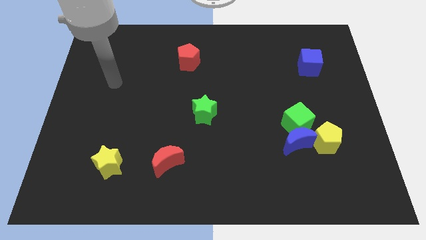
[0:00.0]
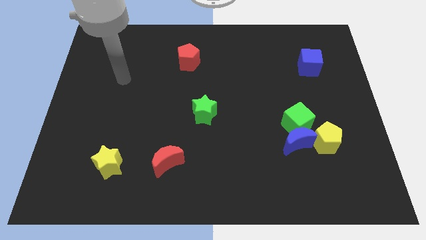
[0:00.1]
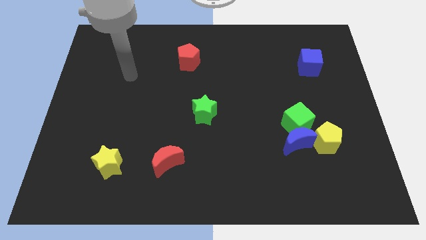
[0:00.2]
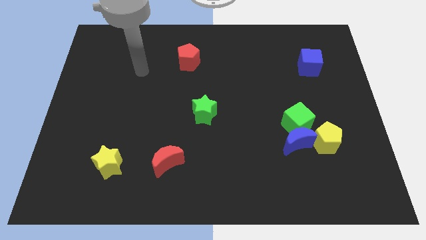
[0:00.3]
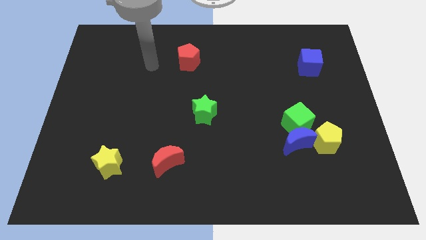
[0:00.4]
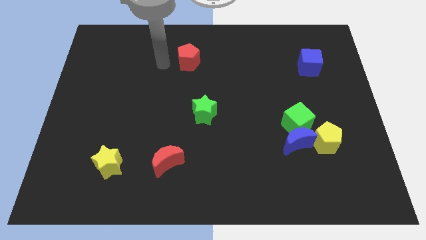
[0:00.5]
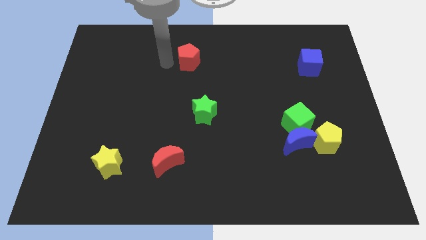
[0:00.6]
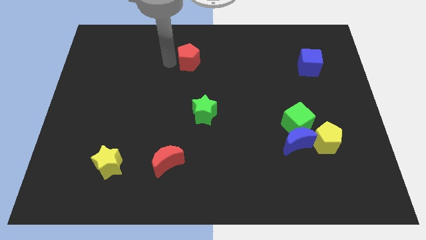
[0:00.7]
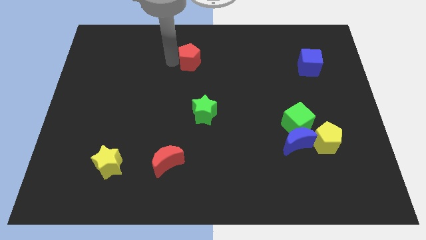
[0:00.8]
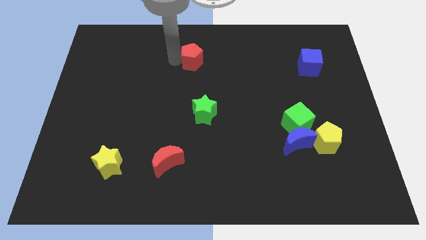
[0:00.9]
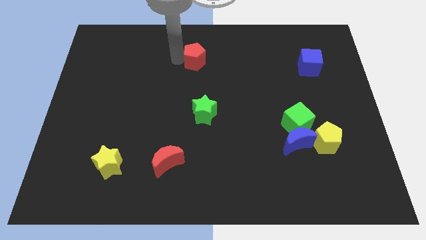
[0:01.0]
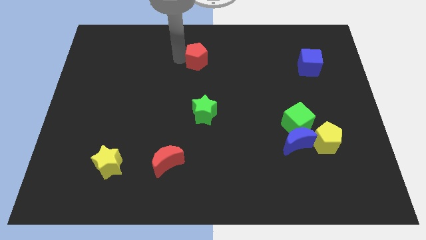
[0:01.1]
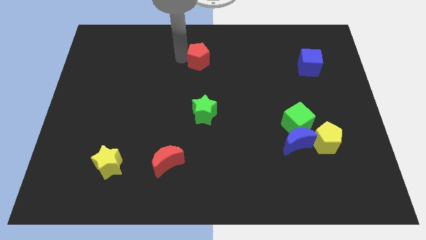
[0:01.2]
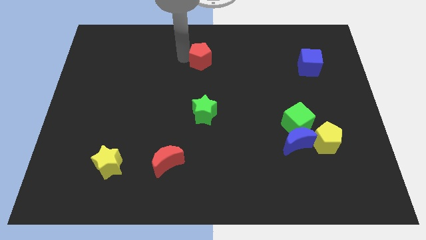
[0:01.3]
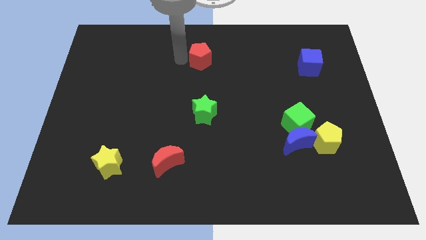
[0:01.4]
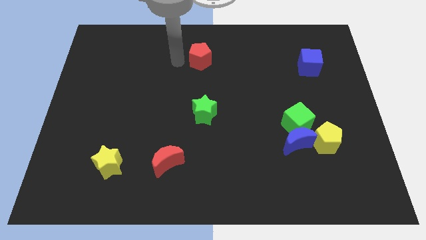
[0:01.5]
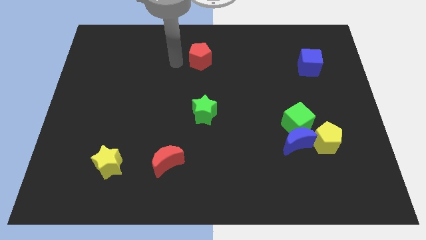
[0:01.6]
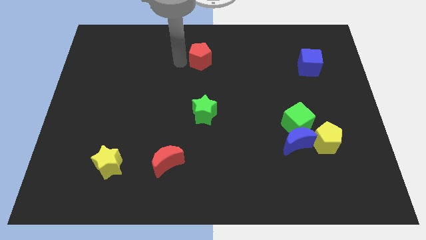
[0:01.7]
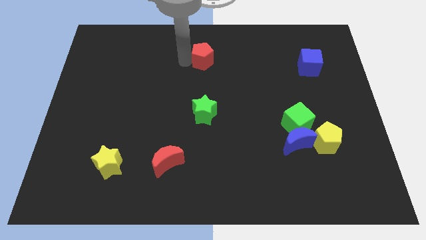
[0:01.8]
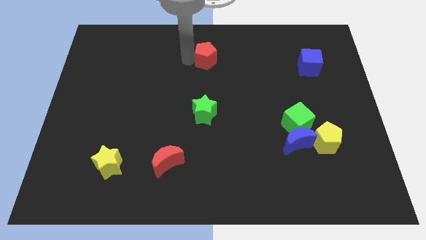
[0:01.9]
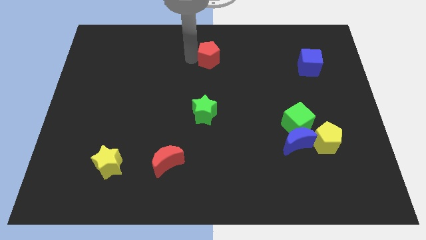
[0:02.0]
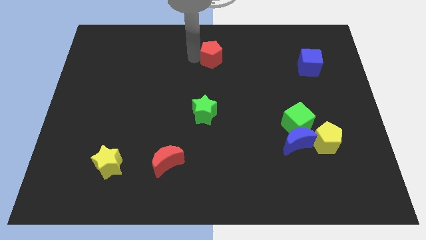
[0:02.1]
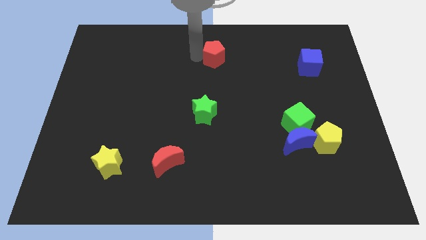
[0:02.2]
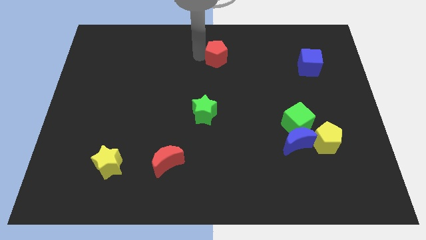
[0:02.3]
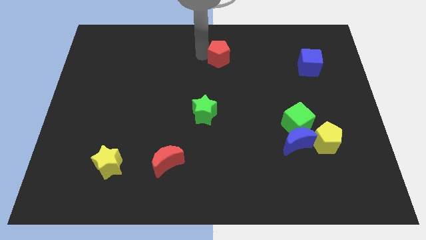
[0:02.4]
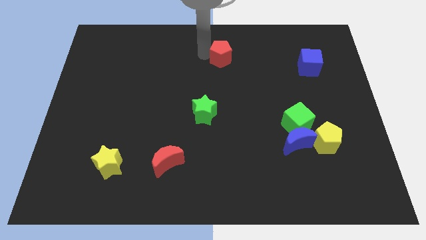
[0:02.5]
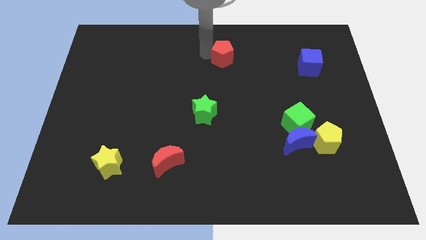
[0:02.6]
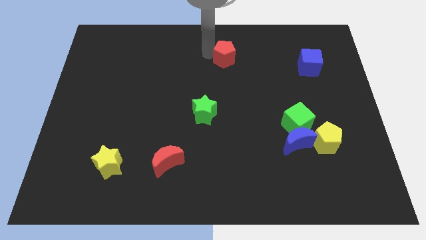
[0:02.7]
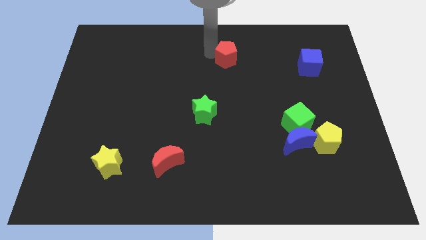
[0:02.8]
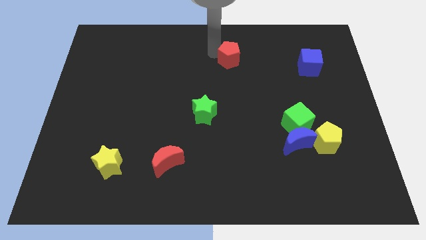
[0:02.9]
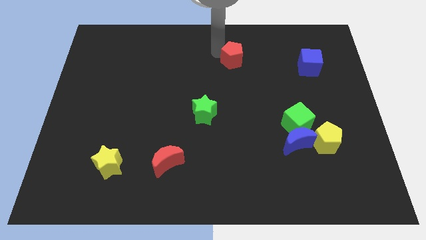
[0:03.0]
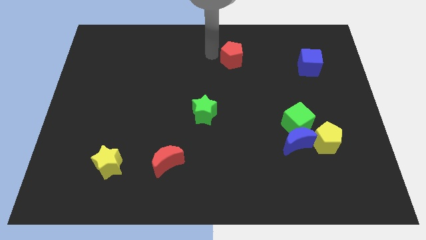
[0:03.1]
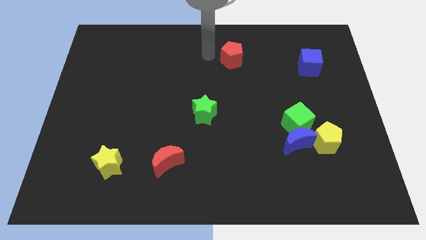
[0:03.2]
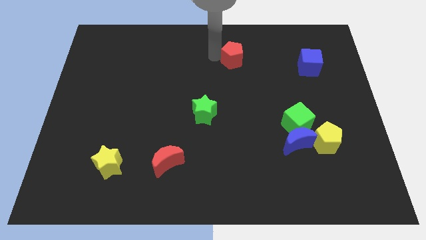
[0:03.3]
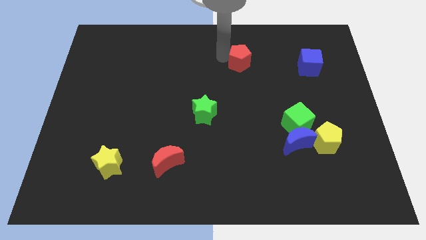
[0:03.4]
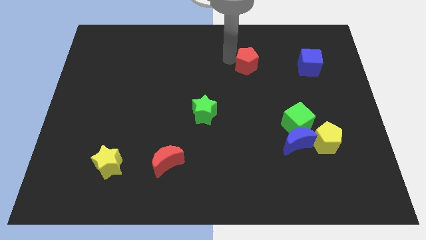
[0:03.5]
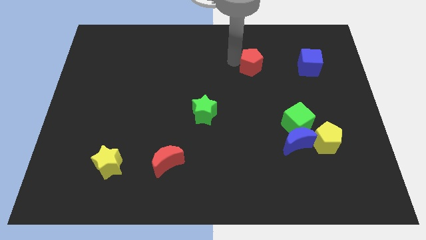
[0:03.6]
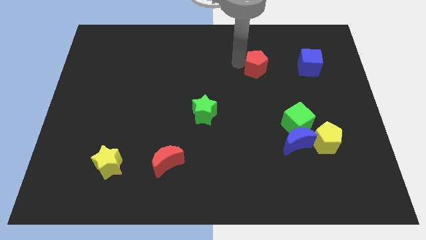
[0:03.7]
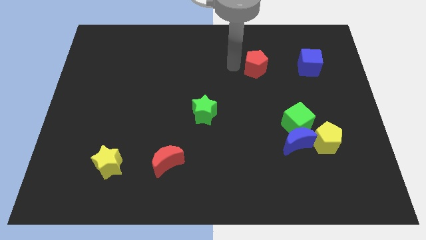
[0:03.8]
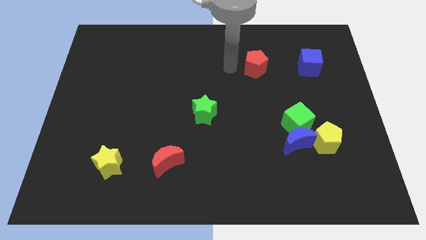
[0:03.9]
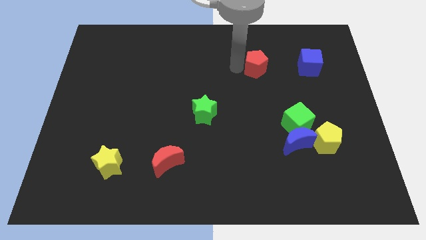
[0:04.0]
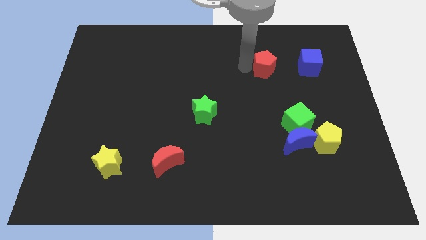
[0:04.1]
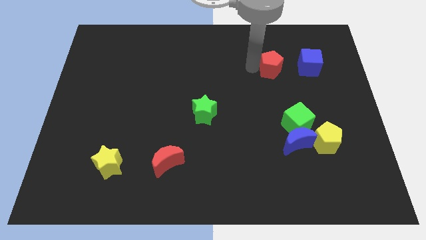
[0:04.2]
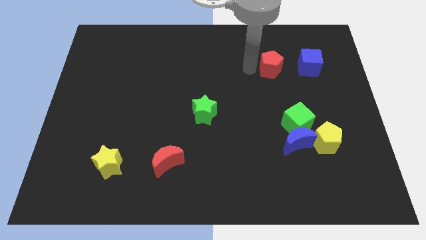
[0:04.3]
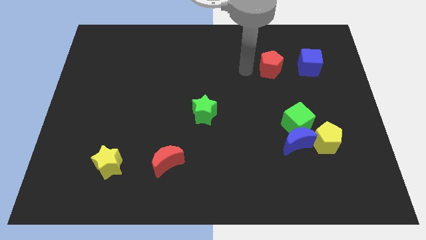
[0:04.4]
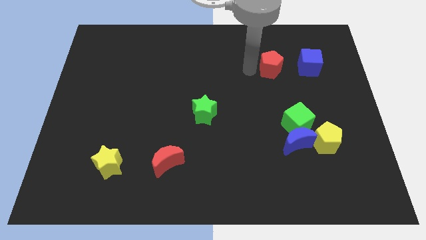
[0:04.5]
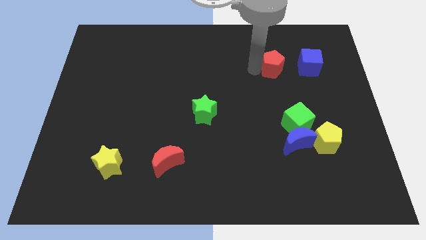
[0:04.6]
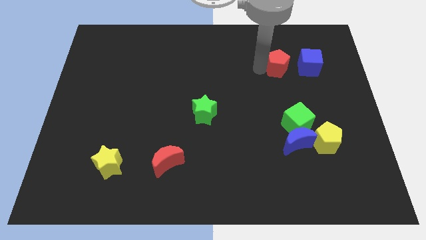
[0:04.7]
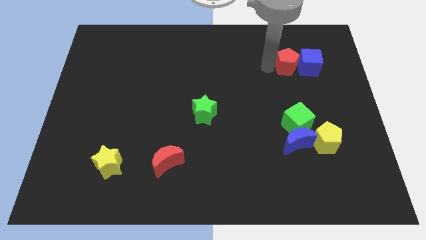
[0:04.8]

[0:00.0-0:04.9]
push the red pentagon next to the blue cube

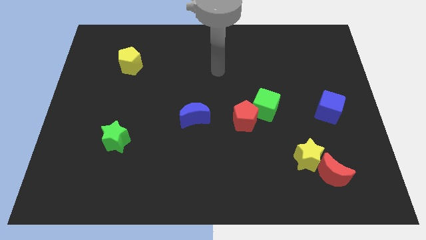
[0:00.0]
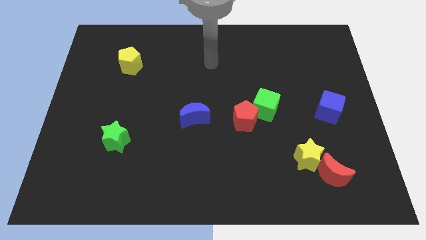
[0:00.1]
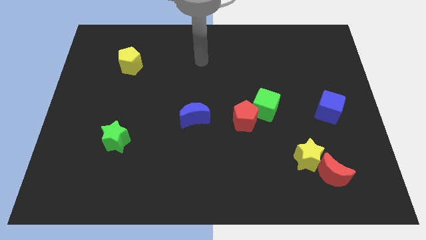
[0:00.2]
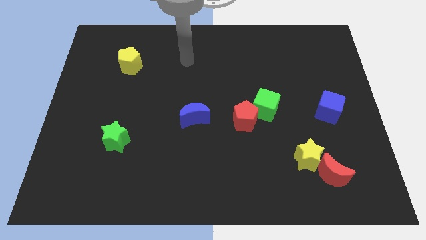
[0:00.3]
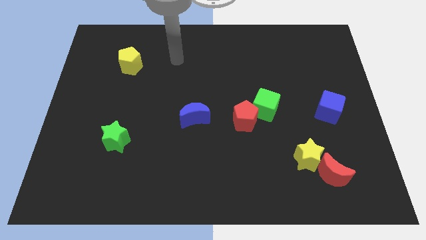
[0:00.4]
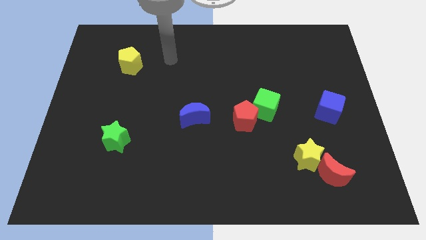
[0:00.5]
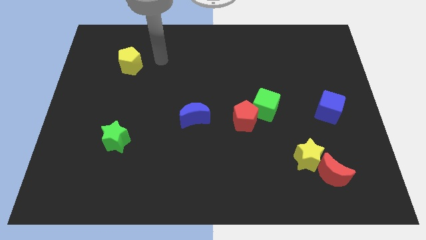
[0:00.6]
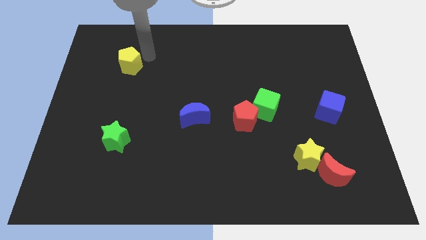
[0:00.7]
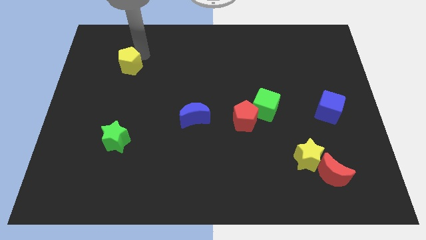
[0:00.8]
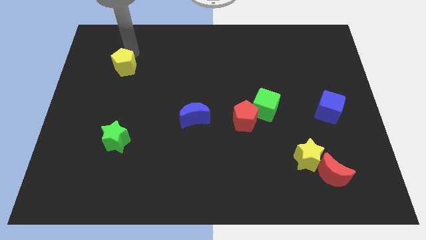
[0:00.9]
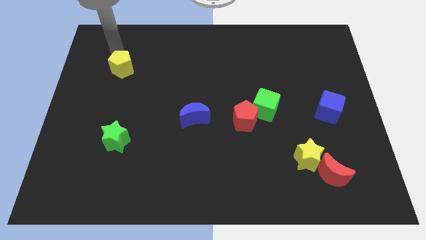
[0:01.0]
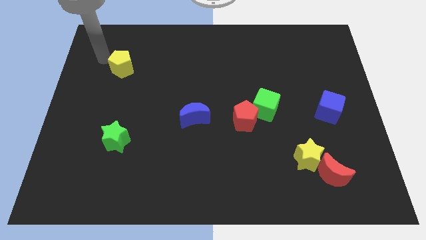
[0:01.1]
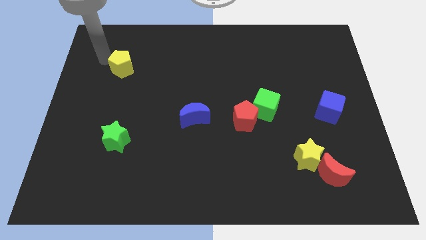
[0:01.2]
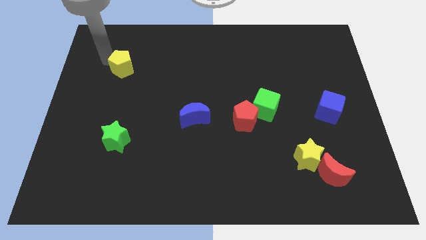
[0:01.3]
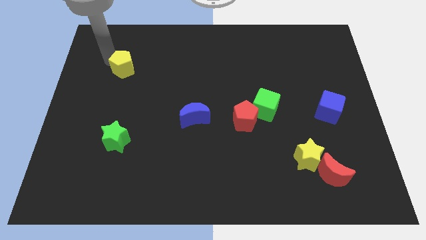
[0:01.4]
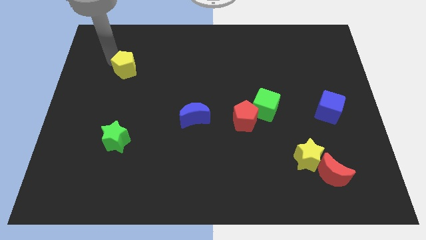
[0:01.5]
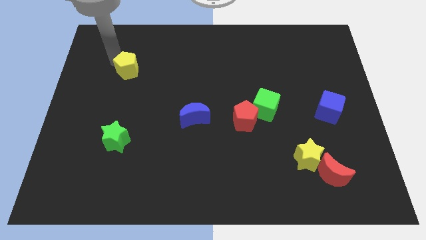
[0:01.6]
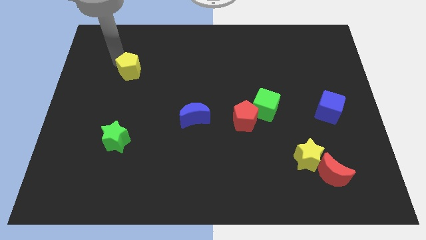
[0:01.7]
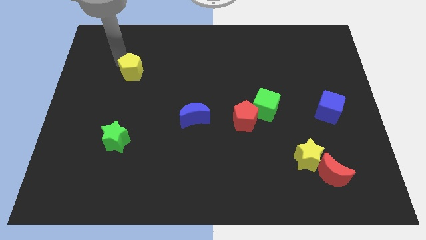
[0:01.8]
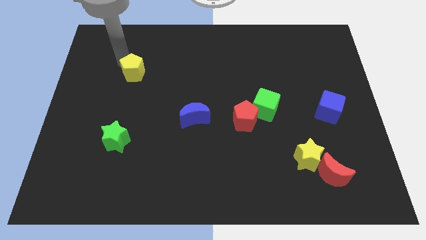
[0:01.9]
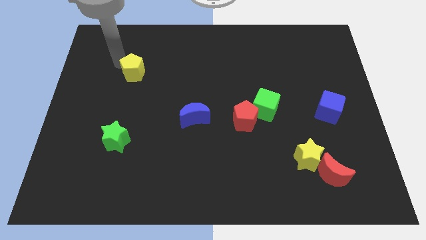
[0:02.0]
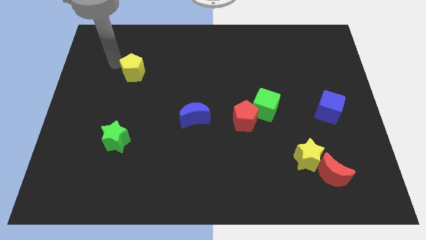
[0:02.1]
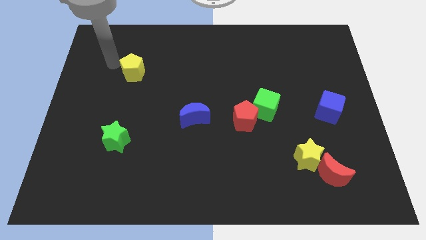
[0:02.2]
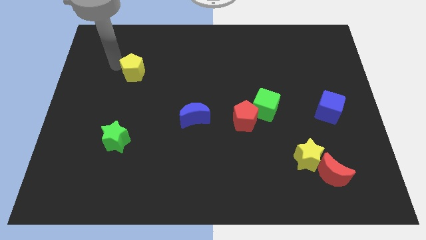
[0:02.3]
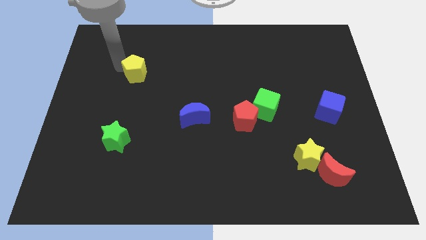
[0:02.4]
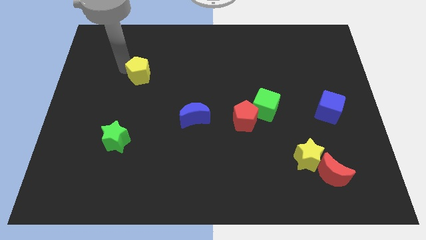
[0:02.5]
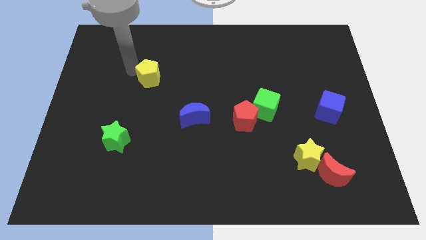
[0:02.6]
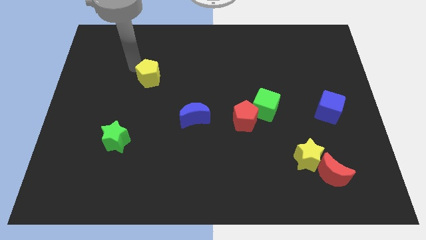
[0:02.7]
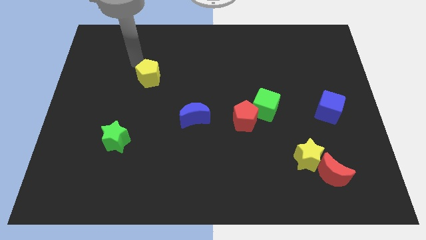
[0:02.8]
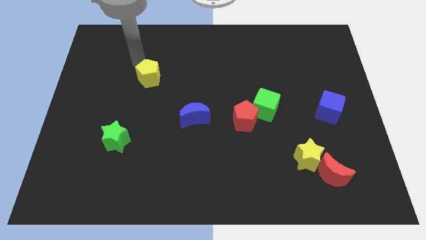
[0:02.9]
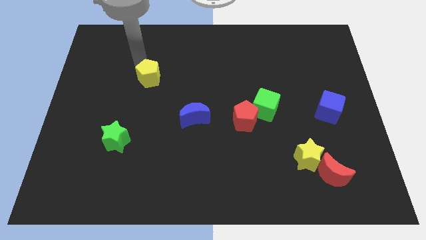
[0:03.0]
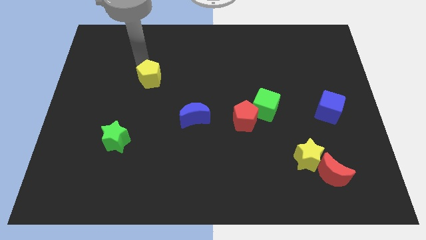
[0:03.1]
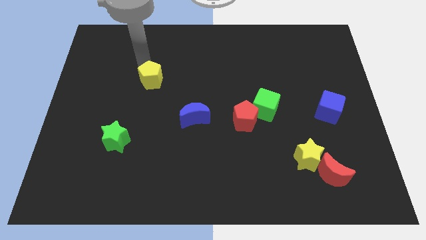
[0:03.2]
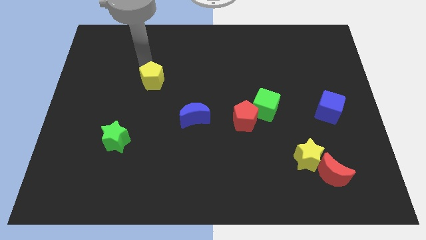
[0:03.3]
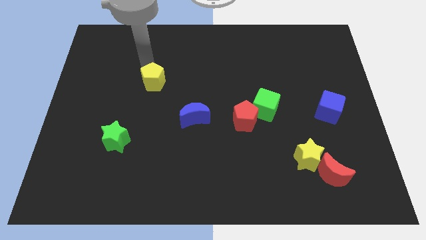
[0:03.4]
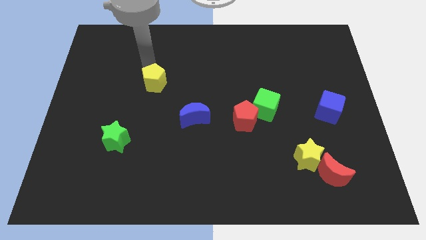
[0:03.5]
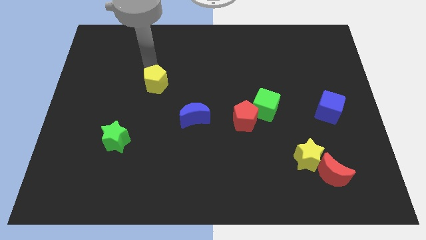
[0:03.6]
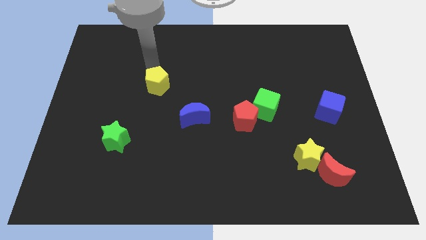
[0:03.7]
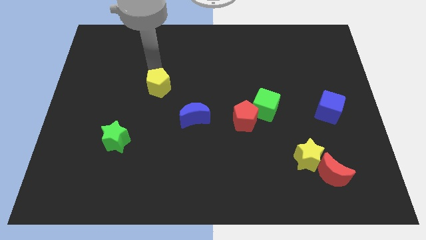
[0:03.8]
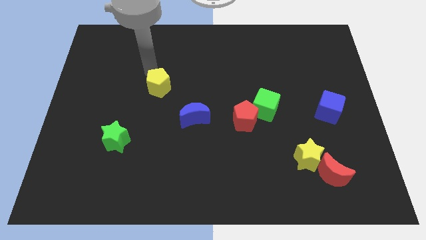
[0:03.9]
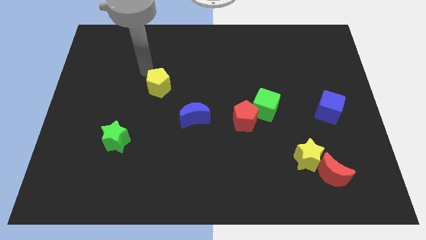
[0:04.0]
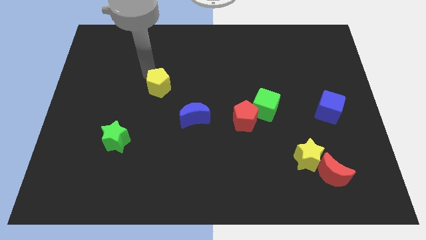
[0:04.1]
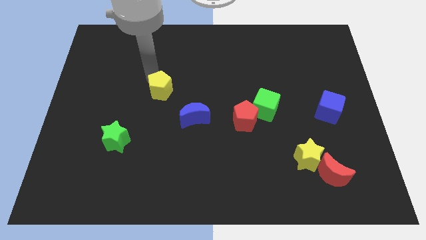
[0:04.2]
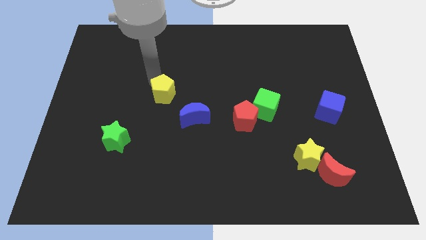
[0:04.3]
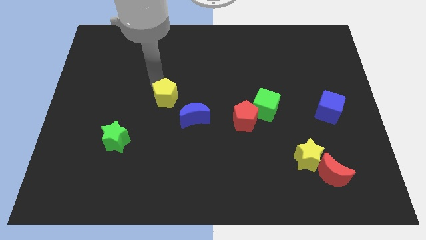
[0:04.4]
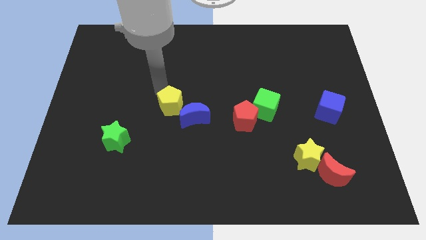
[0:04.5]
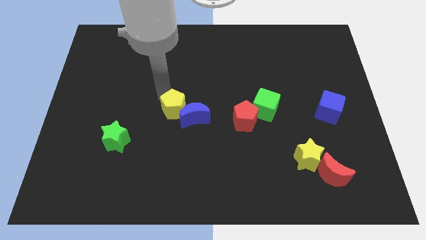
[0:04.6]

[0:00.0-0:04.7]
slide the yellow pentagon towards the blue moon
